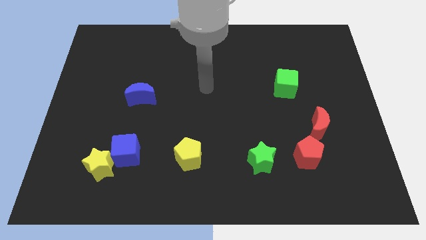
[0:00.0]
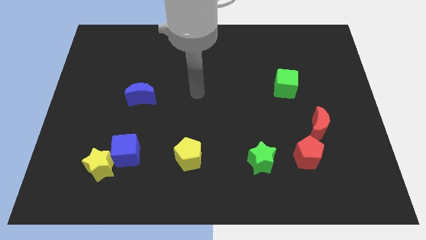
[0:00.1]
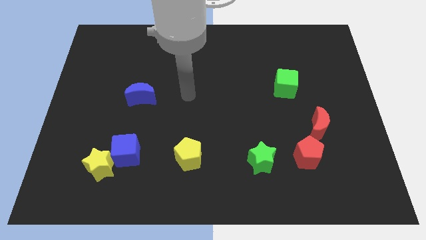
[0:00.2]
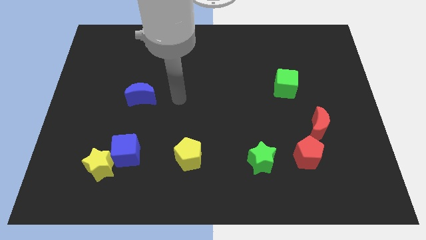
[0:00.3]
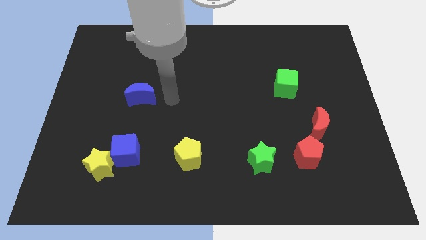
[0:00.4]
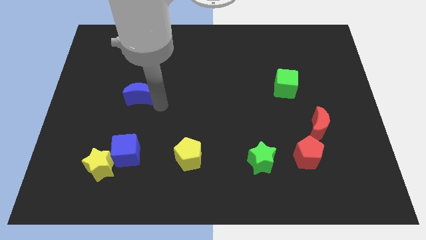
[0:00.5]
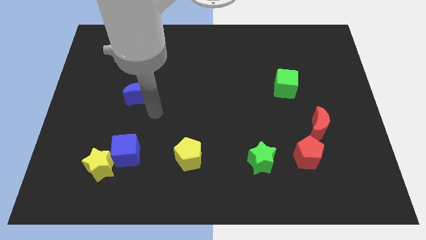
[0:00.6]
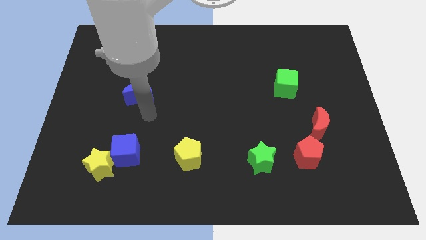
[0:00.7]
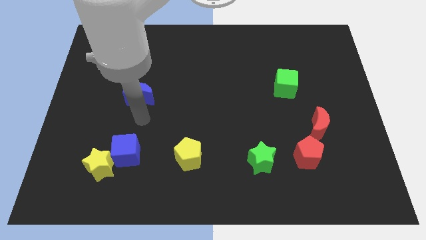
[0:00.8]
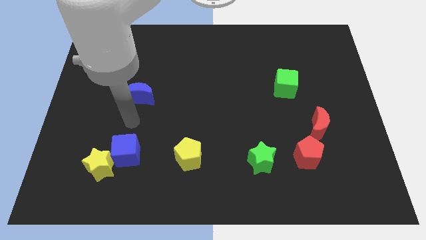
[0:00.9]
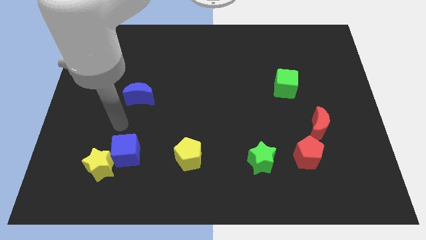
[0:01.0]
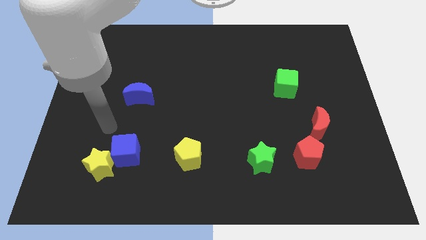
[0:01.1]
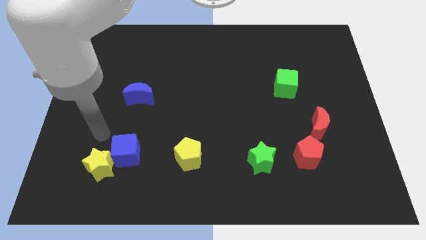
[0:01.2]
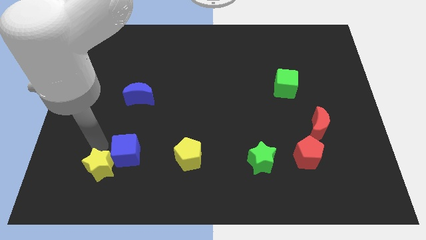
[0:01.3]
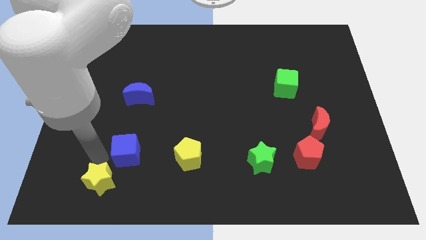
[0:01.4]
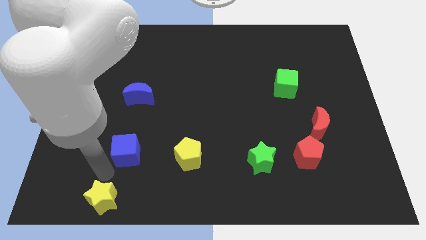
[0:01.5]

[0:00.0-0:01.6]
pull the blue cube apart from the yellow star

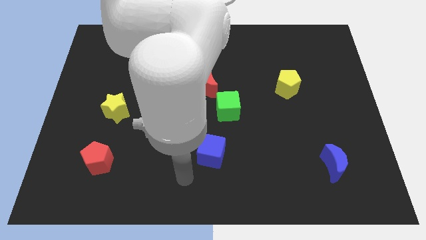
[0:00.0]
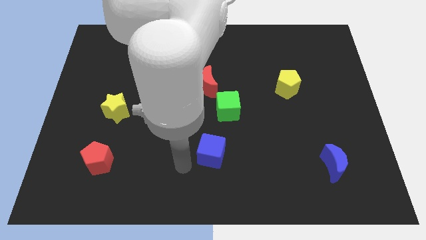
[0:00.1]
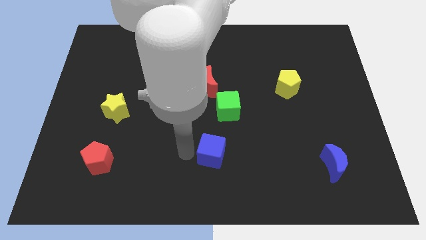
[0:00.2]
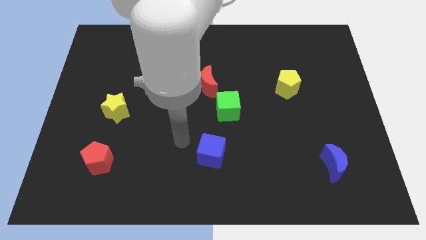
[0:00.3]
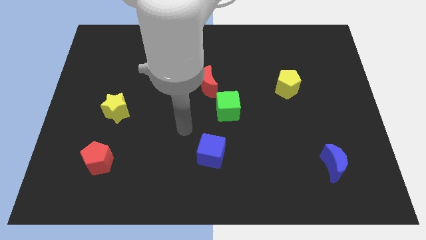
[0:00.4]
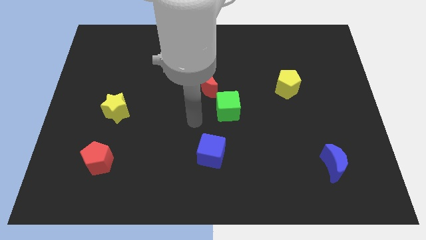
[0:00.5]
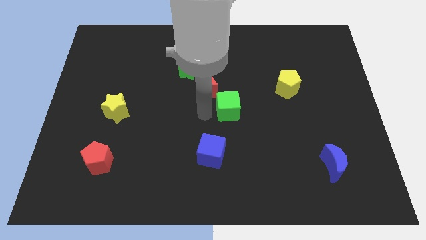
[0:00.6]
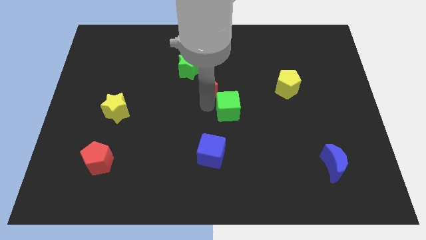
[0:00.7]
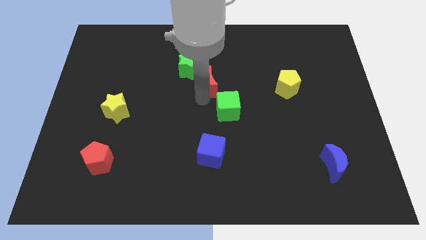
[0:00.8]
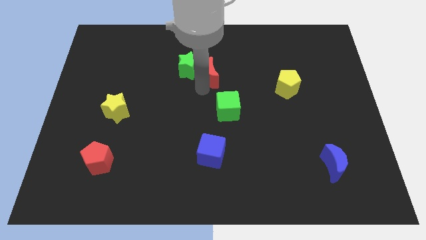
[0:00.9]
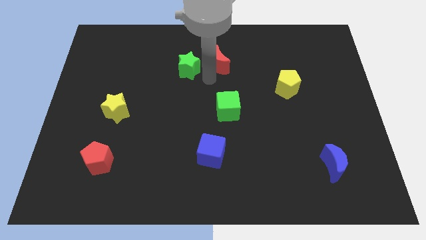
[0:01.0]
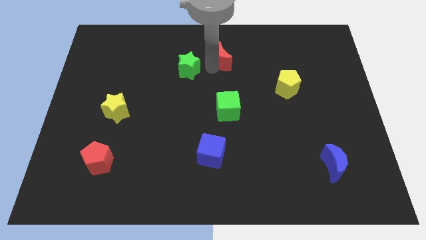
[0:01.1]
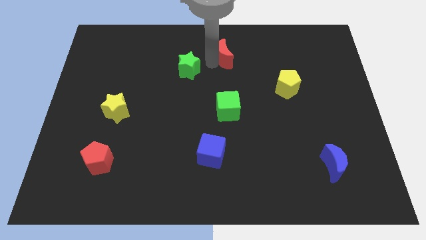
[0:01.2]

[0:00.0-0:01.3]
separate the green star from the red moon

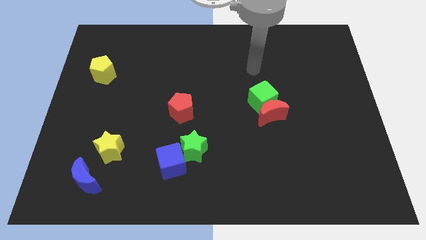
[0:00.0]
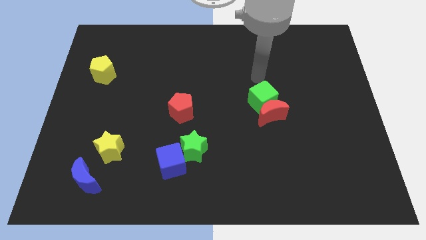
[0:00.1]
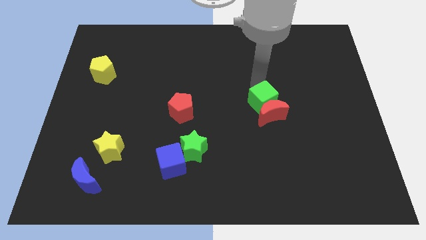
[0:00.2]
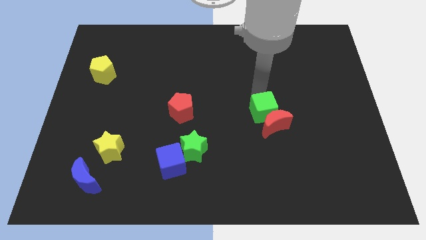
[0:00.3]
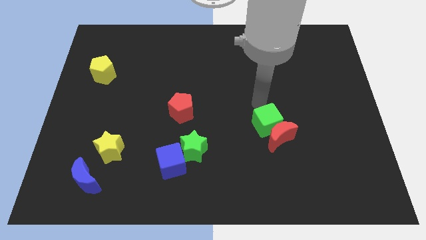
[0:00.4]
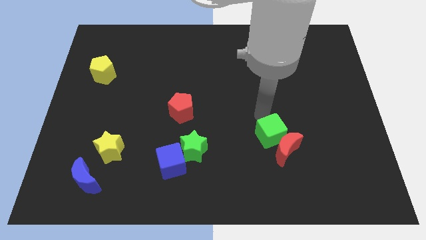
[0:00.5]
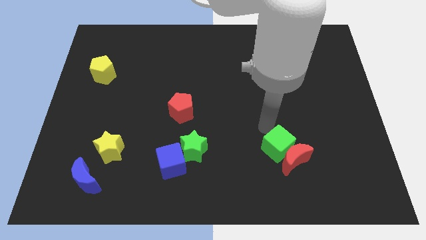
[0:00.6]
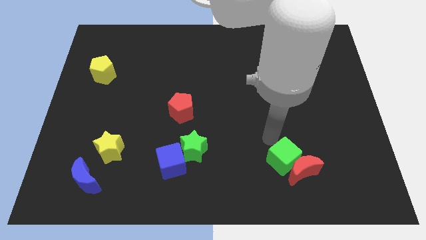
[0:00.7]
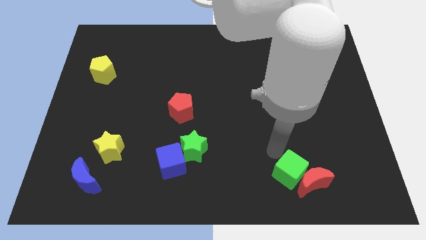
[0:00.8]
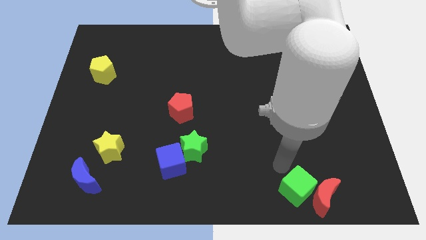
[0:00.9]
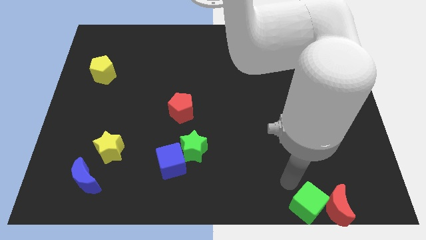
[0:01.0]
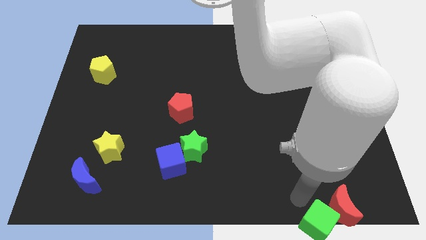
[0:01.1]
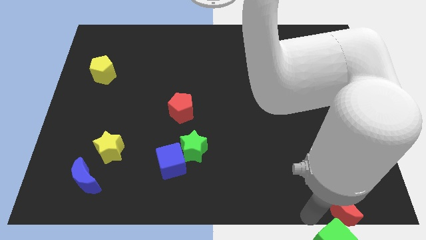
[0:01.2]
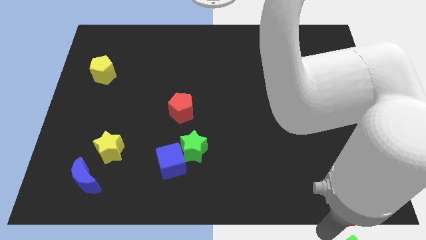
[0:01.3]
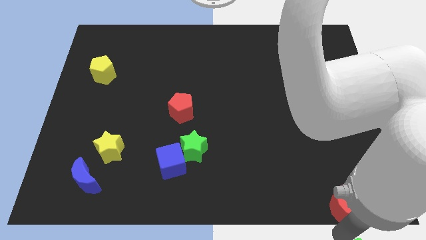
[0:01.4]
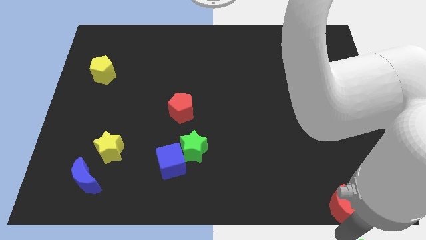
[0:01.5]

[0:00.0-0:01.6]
pull the red moon apart from the green cube

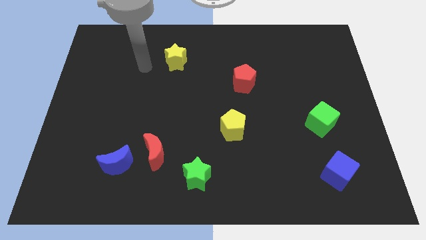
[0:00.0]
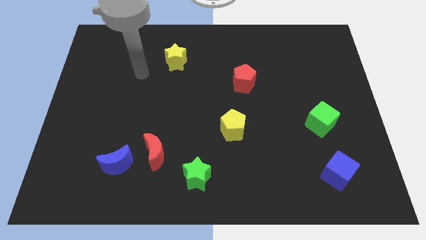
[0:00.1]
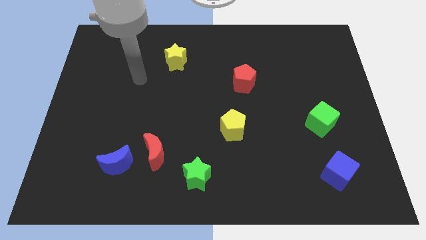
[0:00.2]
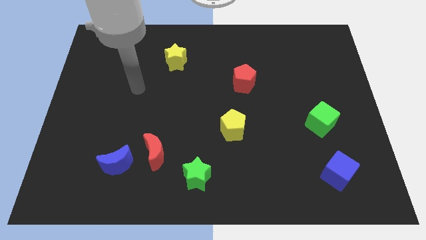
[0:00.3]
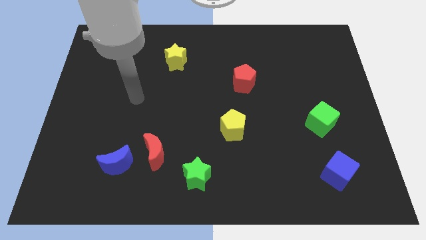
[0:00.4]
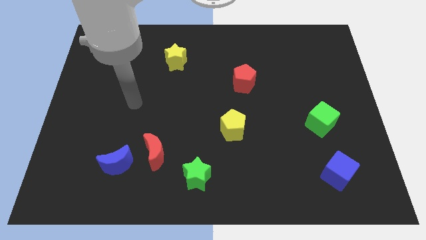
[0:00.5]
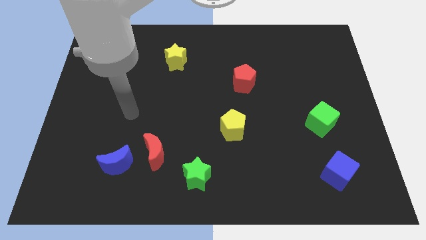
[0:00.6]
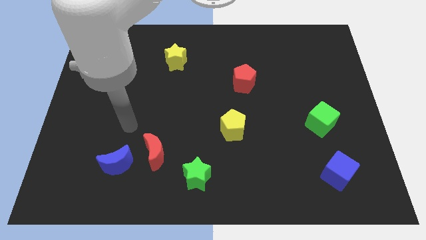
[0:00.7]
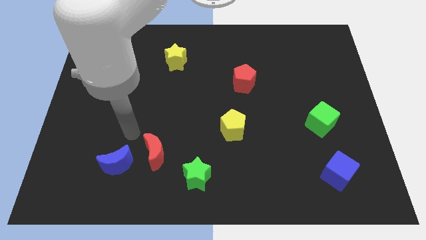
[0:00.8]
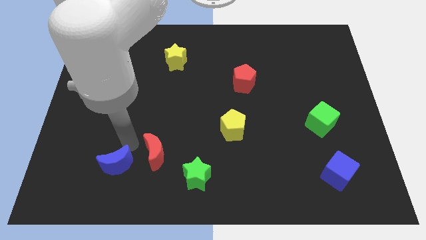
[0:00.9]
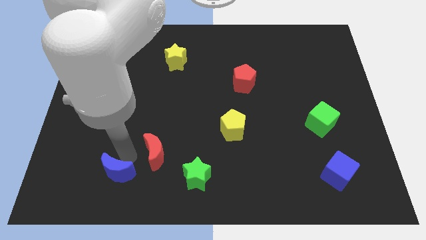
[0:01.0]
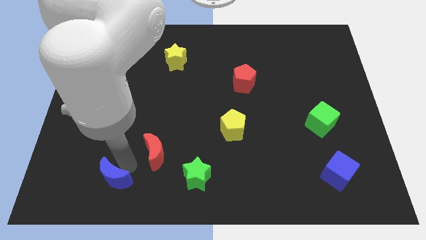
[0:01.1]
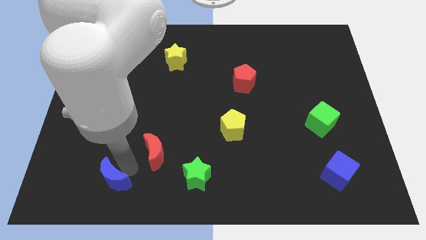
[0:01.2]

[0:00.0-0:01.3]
pull the red moon apart from the blue moon

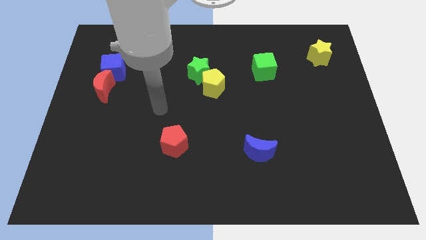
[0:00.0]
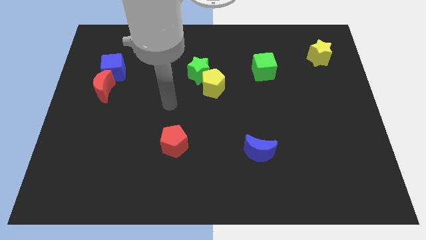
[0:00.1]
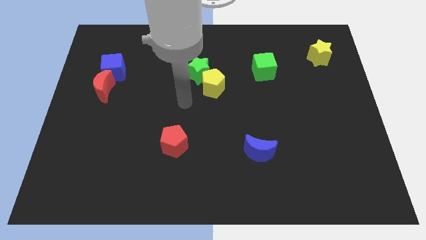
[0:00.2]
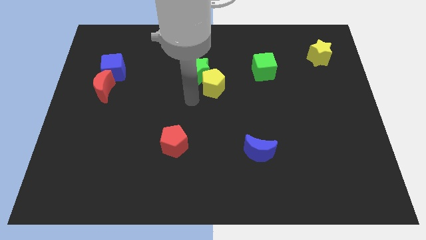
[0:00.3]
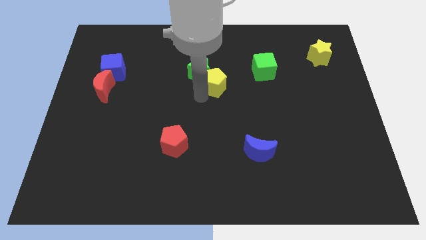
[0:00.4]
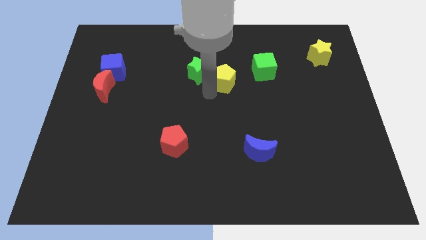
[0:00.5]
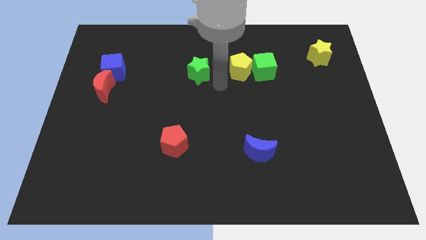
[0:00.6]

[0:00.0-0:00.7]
pull the green star apart from the yellow pentagon

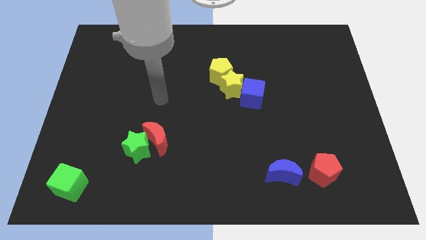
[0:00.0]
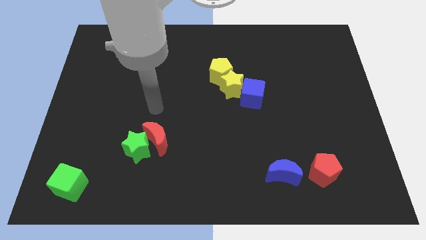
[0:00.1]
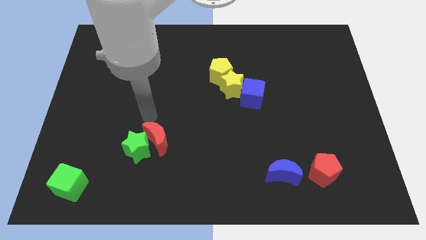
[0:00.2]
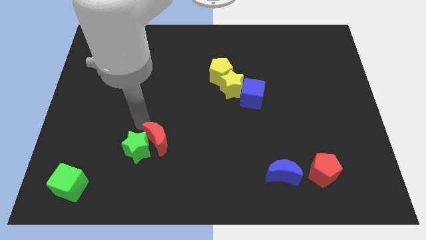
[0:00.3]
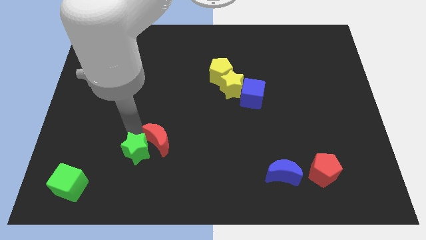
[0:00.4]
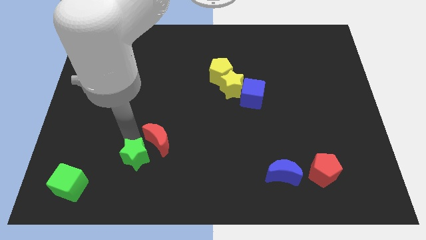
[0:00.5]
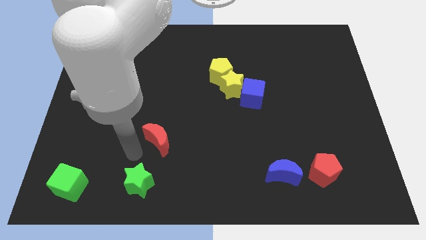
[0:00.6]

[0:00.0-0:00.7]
pull the red moon apart from the green star

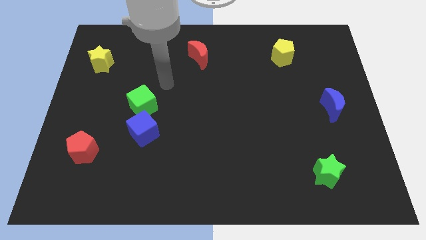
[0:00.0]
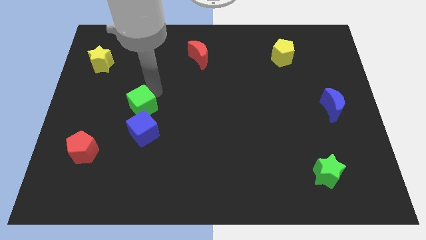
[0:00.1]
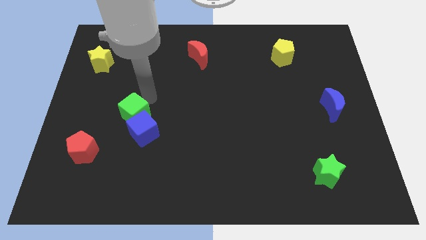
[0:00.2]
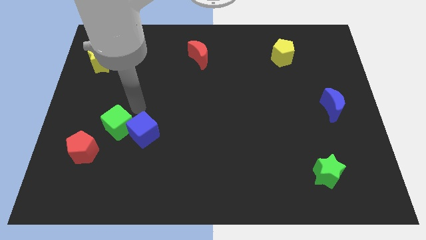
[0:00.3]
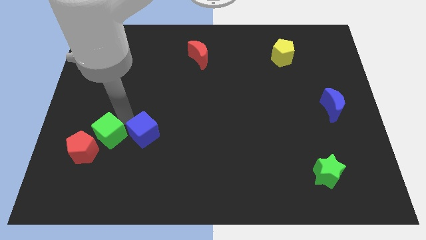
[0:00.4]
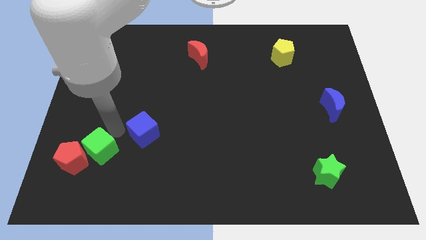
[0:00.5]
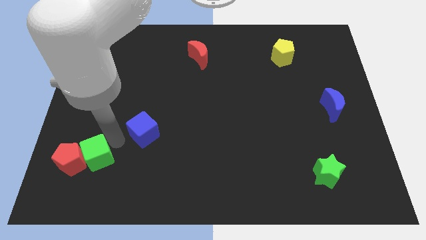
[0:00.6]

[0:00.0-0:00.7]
separate the blue cube from the green cube

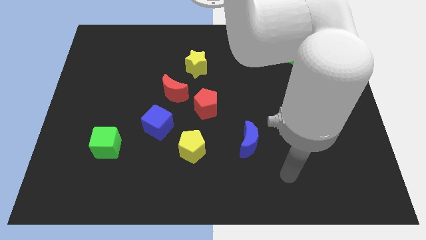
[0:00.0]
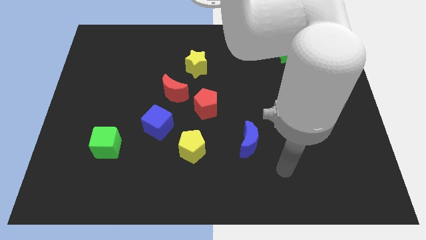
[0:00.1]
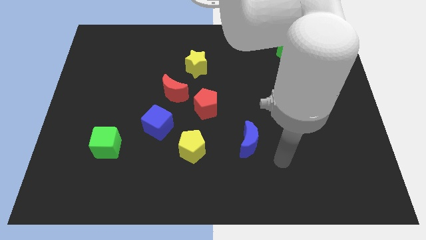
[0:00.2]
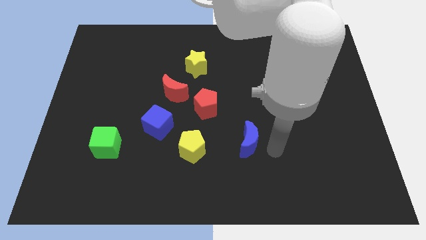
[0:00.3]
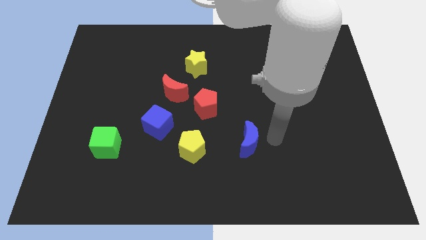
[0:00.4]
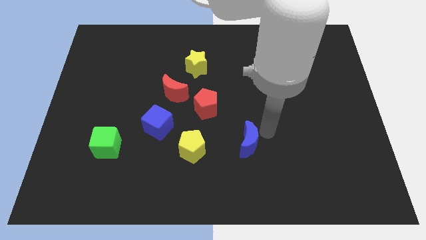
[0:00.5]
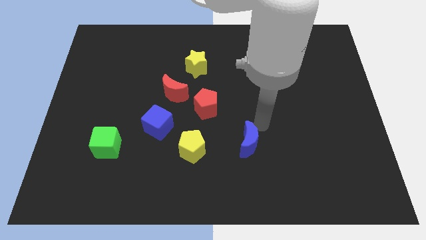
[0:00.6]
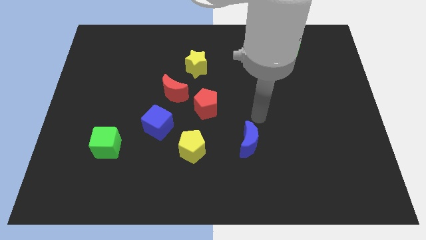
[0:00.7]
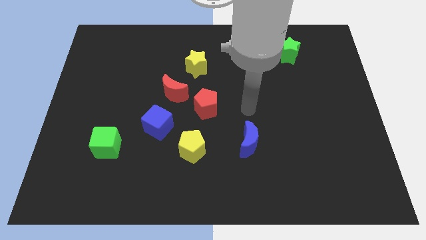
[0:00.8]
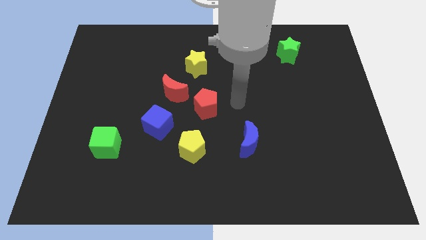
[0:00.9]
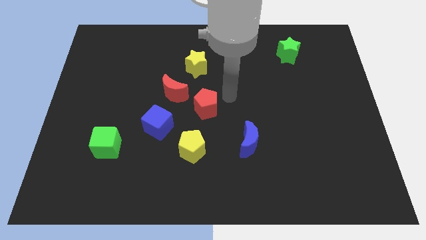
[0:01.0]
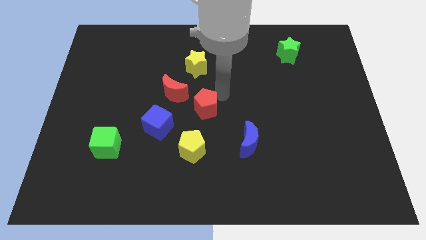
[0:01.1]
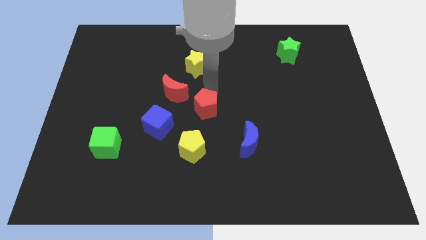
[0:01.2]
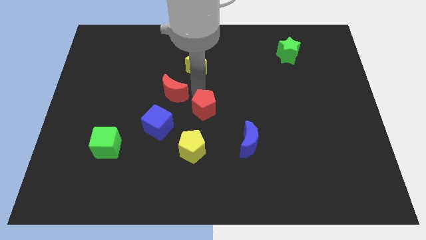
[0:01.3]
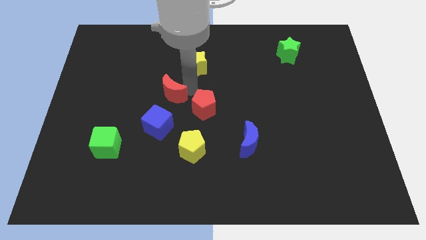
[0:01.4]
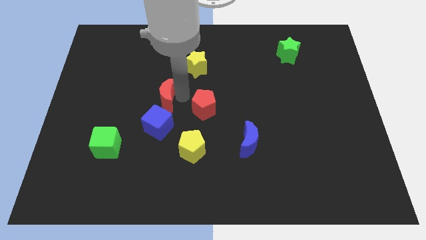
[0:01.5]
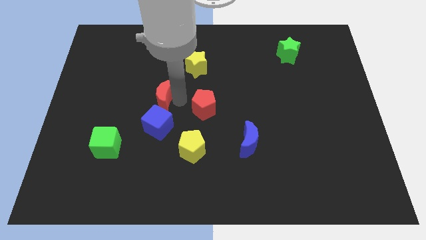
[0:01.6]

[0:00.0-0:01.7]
move the red pentagon away from the red moon
